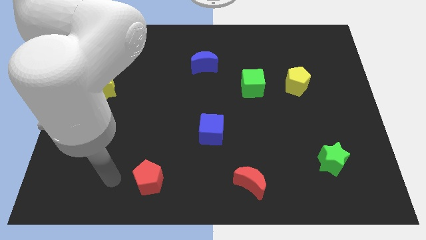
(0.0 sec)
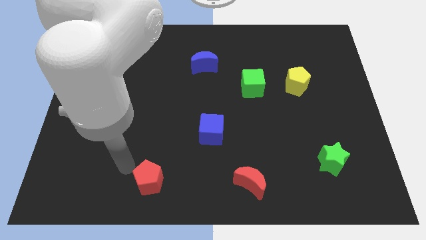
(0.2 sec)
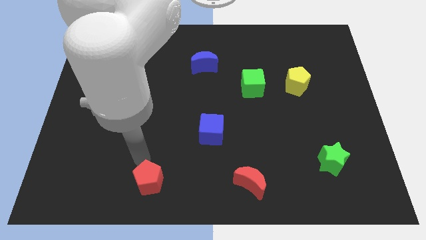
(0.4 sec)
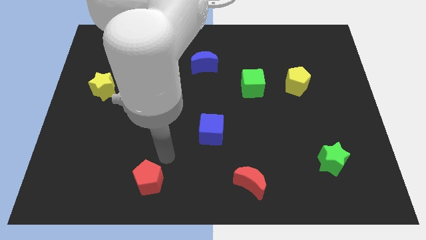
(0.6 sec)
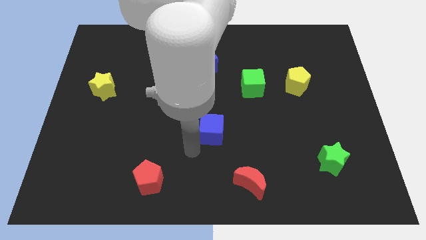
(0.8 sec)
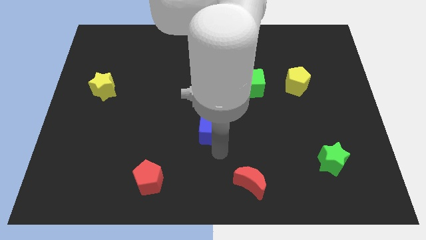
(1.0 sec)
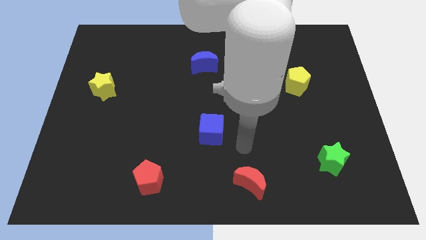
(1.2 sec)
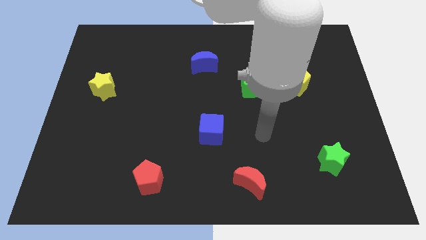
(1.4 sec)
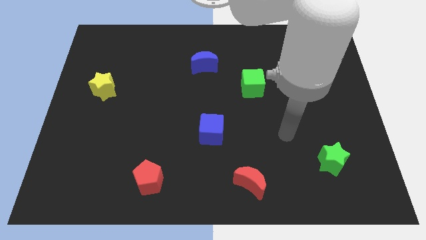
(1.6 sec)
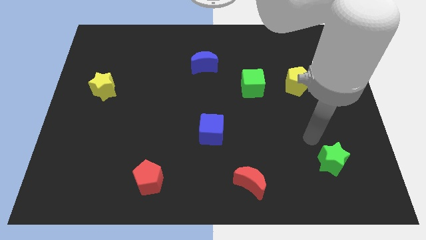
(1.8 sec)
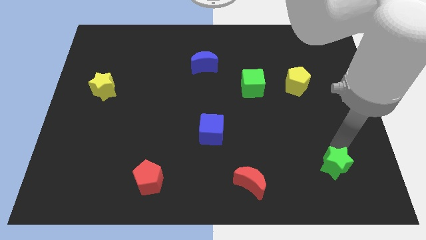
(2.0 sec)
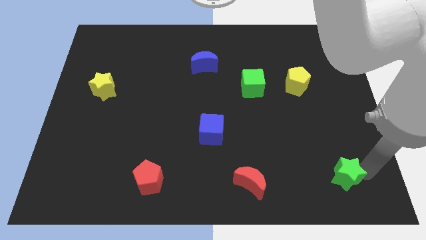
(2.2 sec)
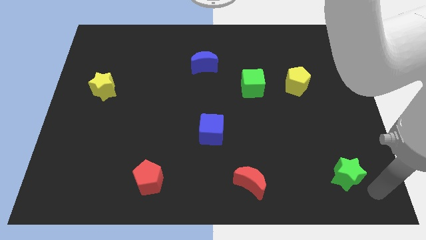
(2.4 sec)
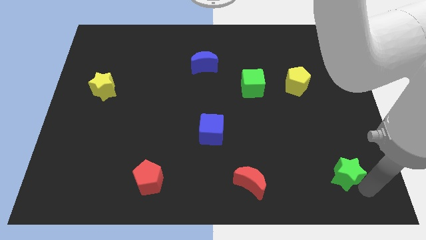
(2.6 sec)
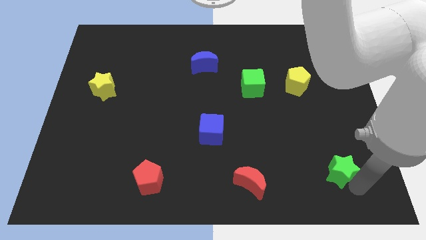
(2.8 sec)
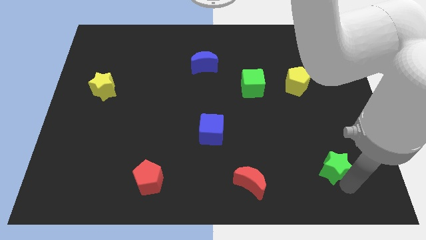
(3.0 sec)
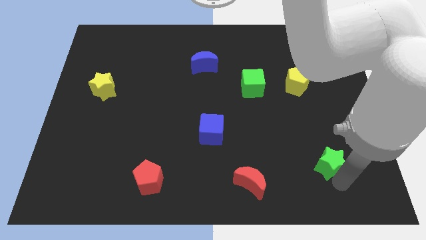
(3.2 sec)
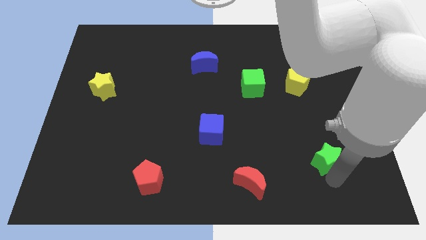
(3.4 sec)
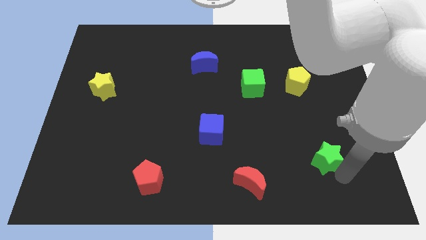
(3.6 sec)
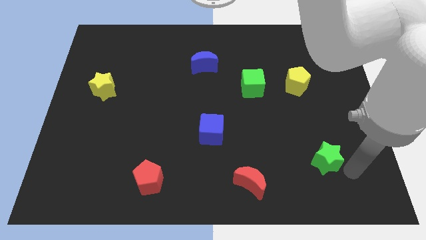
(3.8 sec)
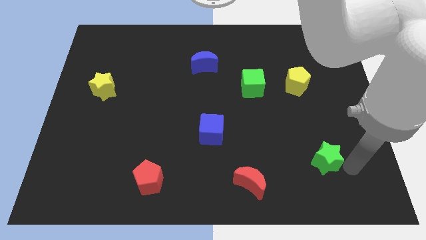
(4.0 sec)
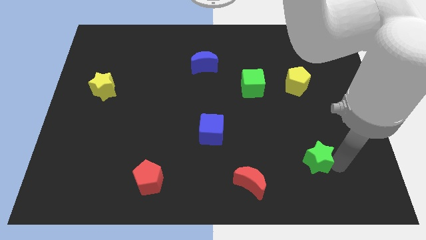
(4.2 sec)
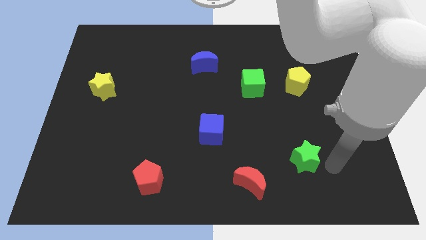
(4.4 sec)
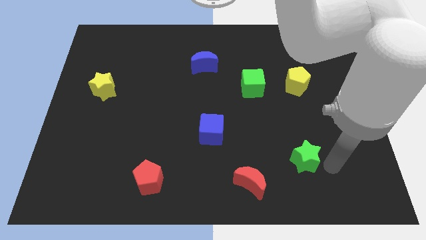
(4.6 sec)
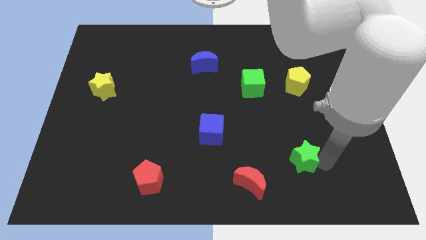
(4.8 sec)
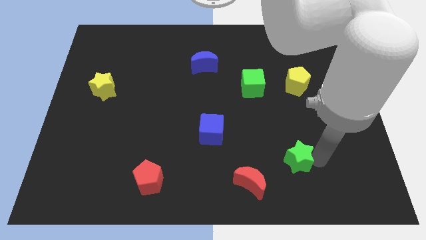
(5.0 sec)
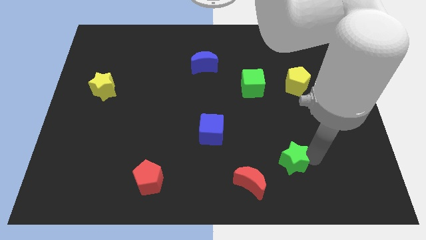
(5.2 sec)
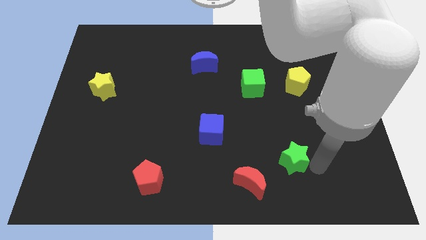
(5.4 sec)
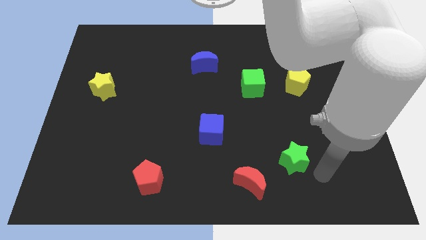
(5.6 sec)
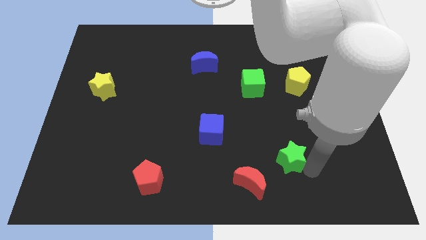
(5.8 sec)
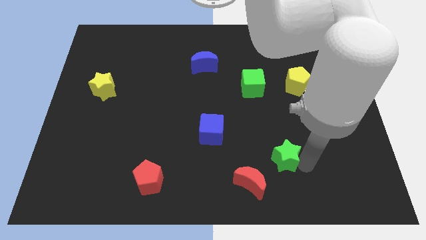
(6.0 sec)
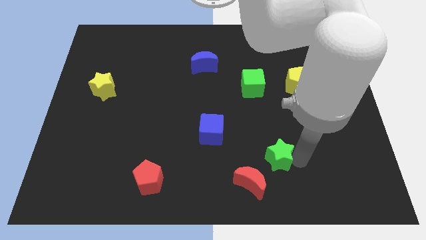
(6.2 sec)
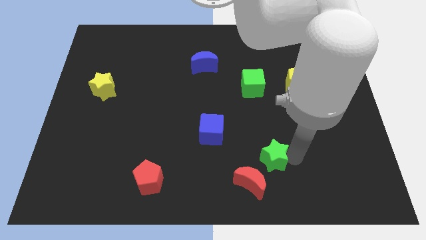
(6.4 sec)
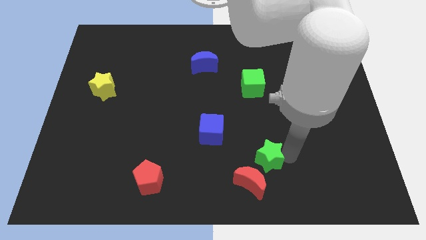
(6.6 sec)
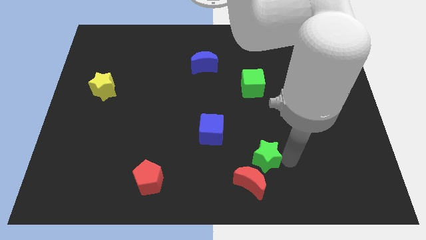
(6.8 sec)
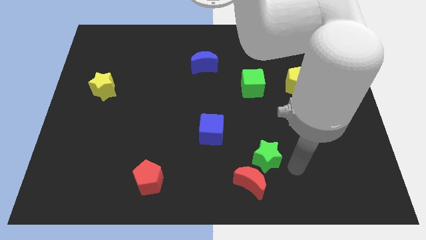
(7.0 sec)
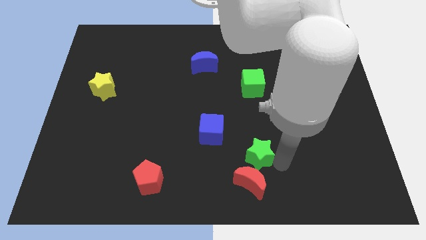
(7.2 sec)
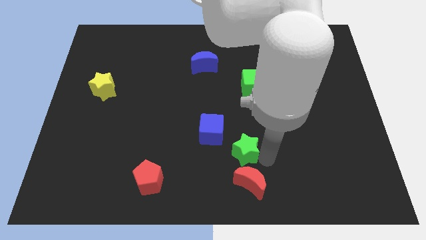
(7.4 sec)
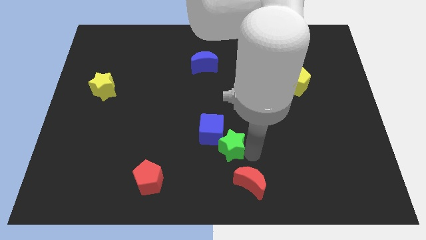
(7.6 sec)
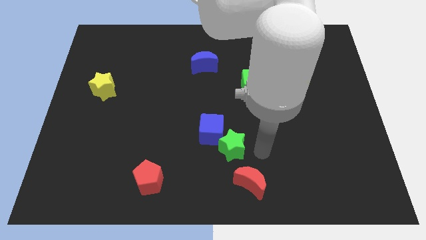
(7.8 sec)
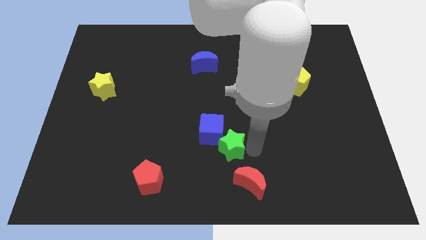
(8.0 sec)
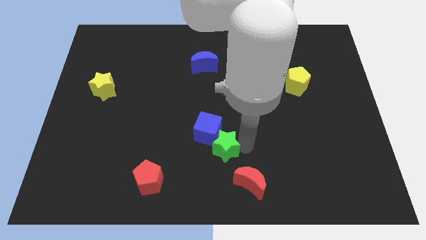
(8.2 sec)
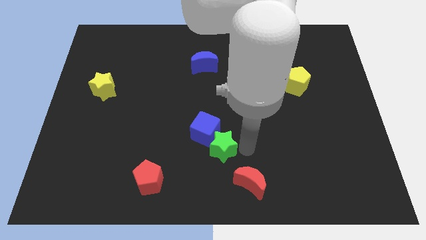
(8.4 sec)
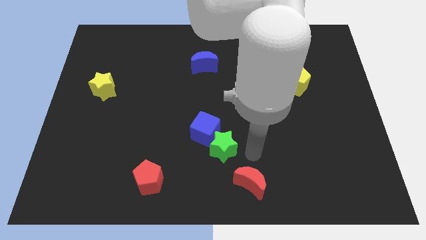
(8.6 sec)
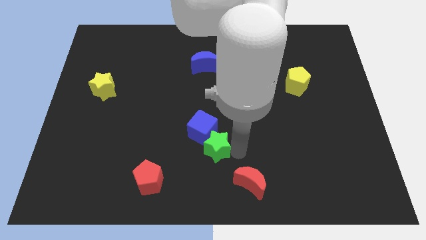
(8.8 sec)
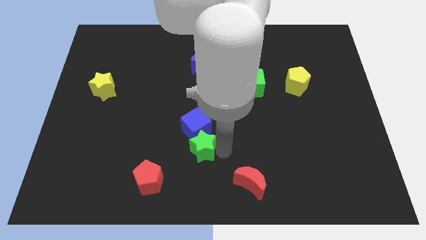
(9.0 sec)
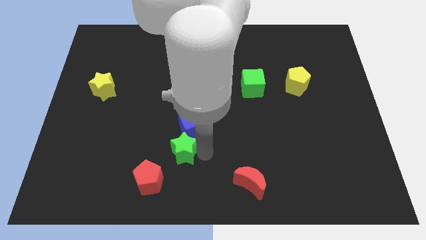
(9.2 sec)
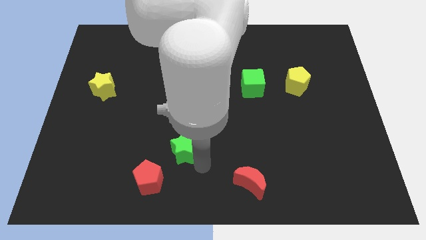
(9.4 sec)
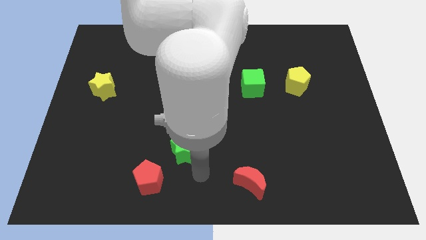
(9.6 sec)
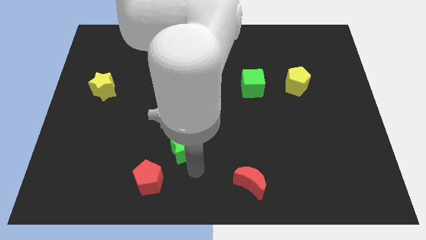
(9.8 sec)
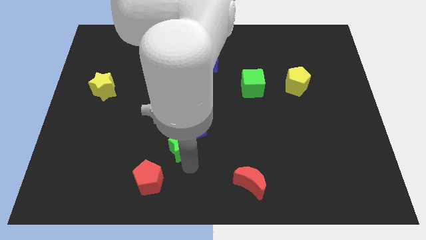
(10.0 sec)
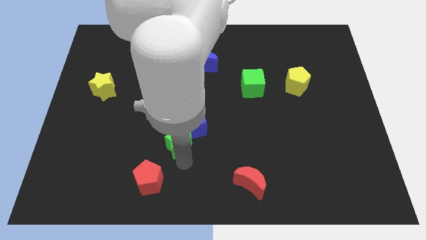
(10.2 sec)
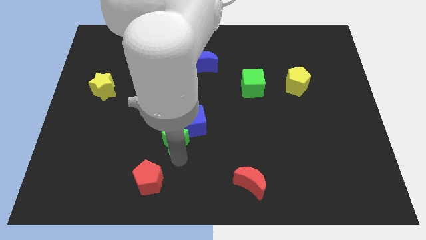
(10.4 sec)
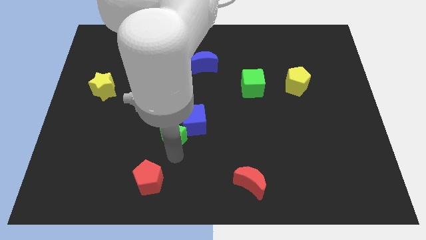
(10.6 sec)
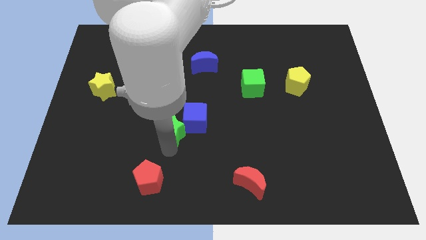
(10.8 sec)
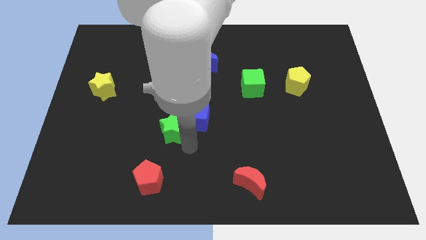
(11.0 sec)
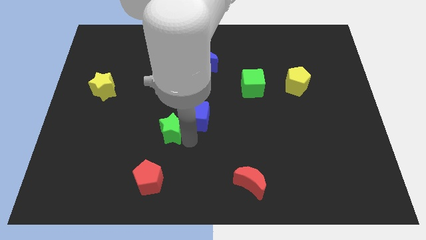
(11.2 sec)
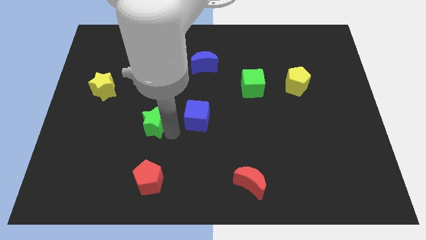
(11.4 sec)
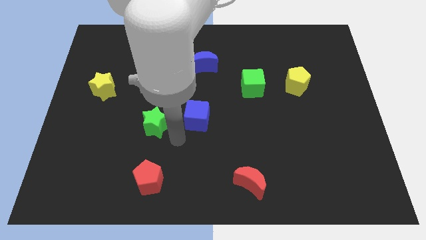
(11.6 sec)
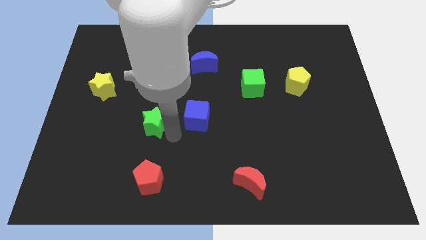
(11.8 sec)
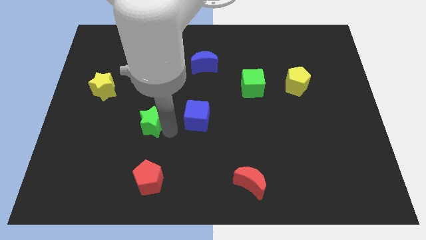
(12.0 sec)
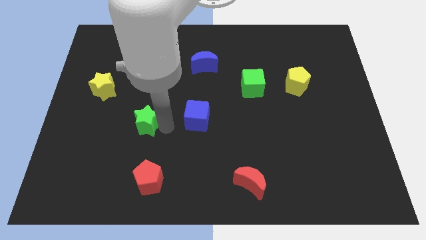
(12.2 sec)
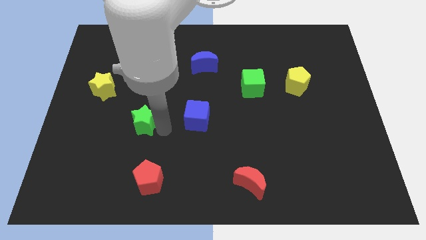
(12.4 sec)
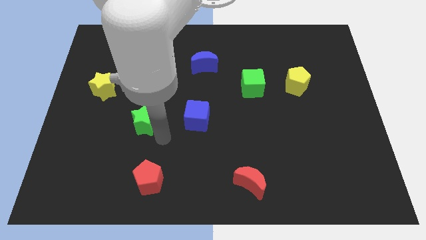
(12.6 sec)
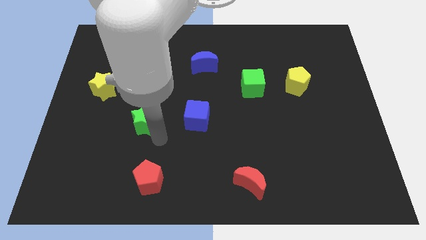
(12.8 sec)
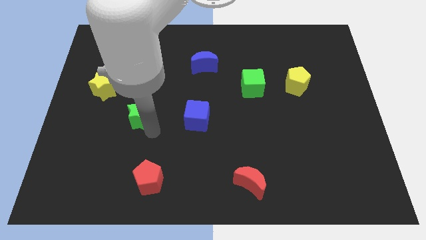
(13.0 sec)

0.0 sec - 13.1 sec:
move the green star diagonally down and to the right of the yellow star

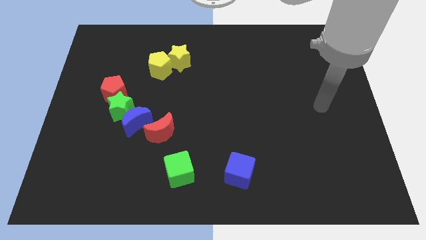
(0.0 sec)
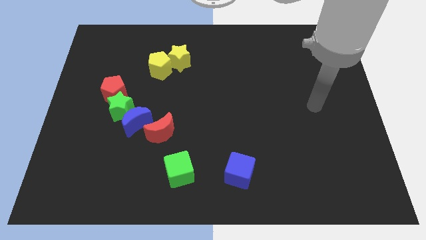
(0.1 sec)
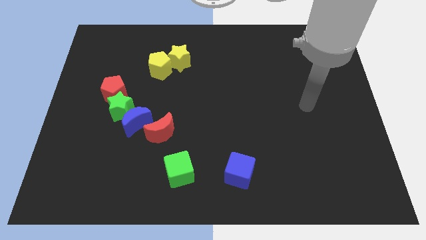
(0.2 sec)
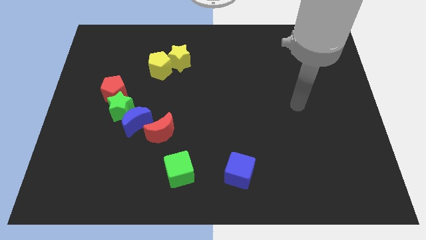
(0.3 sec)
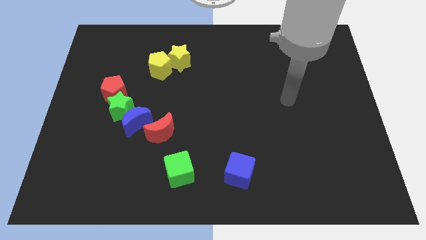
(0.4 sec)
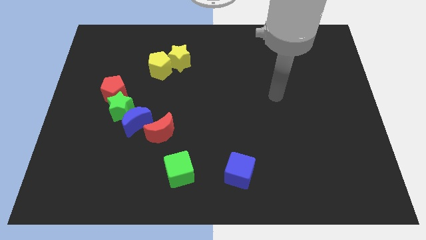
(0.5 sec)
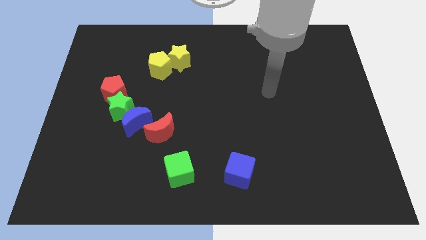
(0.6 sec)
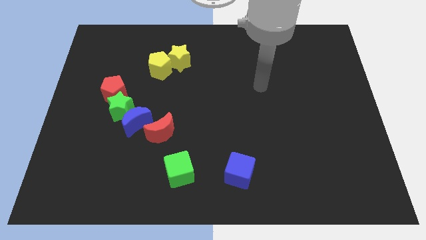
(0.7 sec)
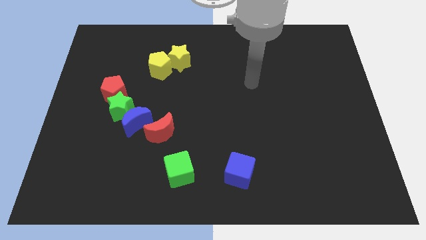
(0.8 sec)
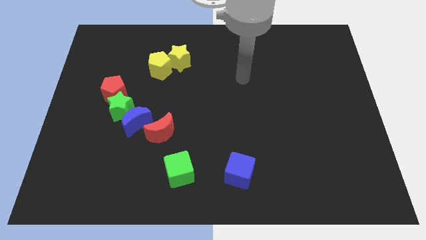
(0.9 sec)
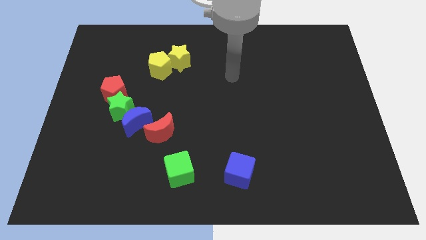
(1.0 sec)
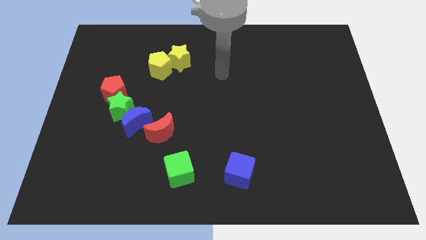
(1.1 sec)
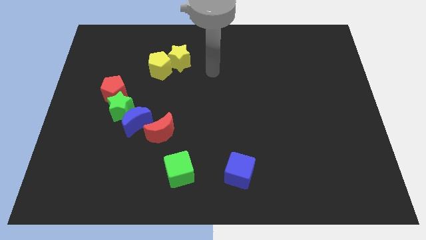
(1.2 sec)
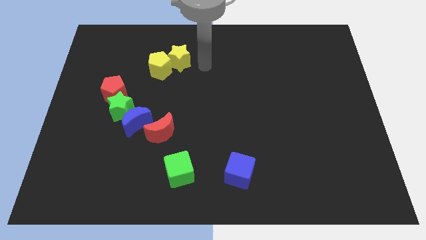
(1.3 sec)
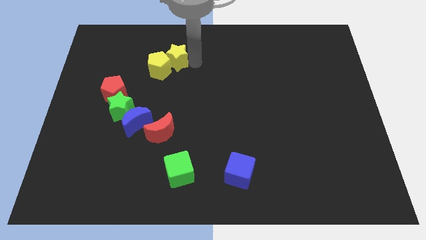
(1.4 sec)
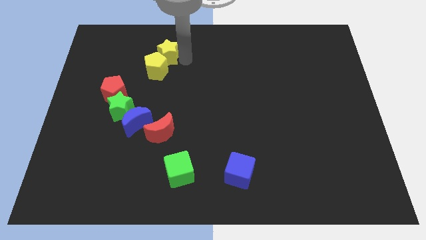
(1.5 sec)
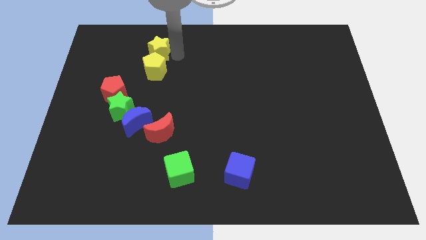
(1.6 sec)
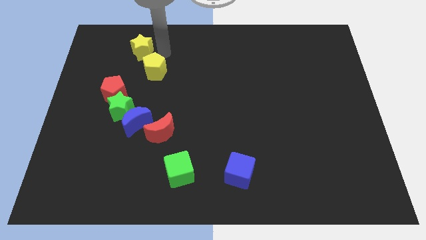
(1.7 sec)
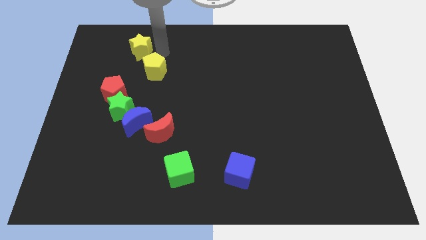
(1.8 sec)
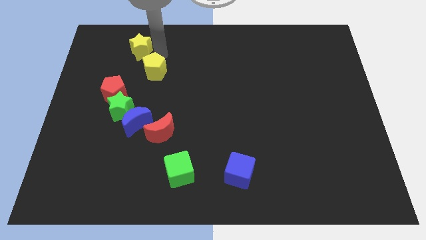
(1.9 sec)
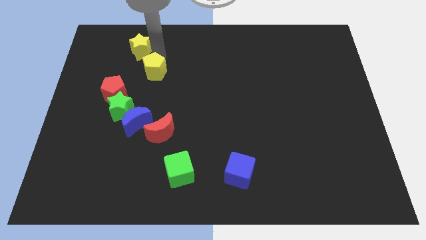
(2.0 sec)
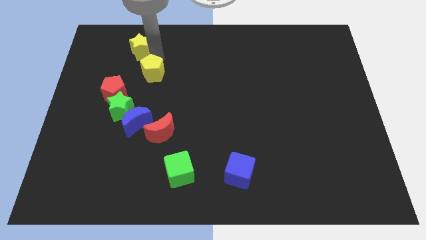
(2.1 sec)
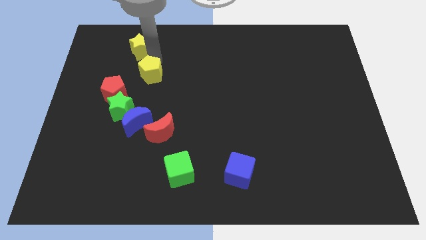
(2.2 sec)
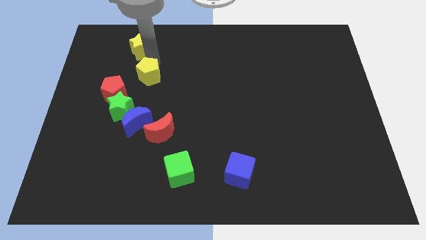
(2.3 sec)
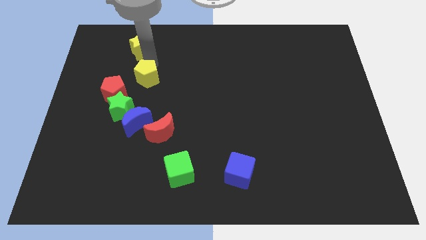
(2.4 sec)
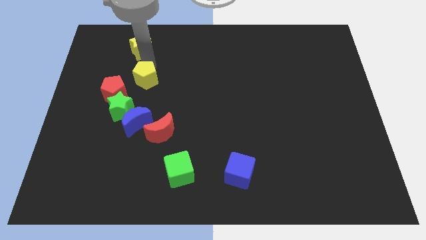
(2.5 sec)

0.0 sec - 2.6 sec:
move the yellow pentagon to the top right side of the green star
